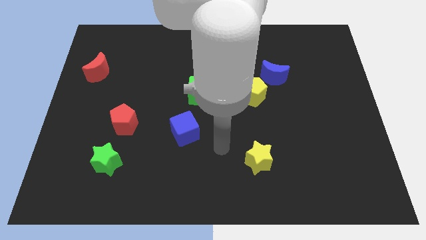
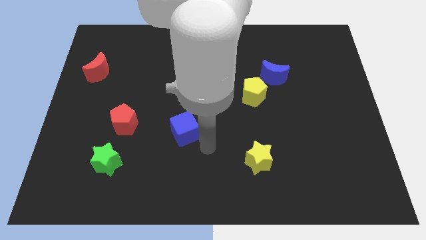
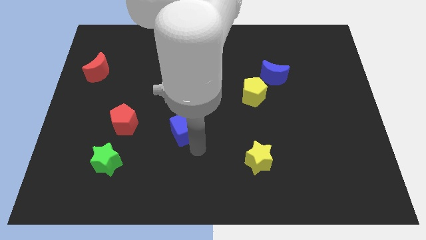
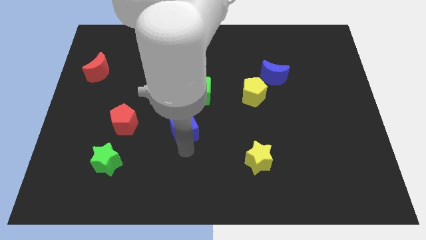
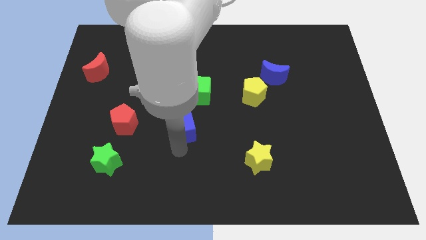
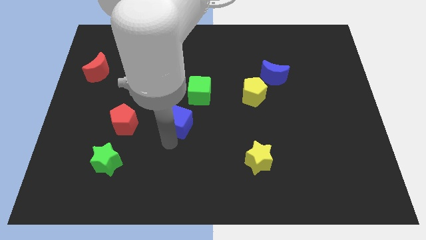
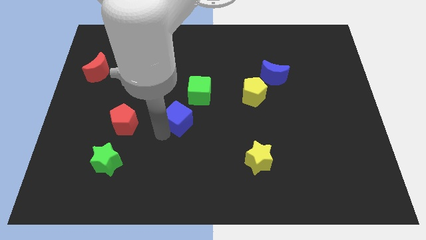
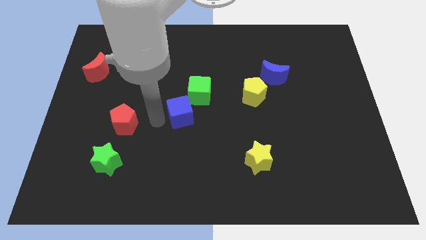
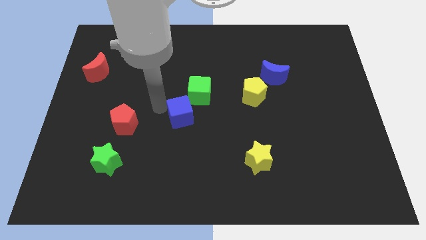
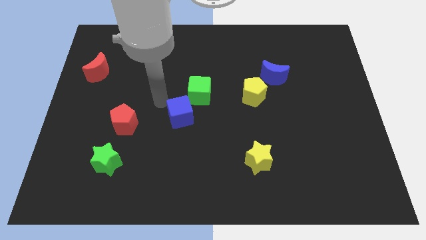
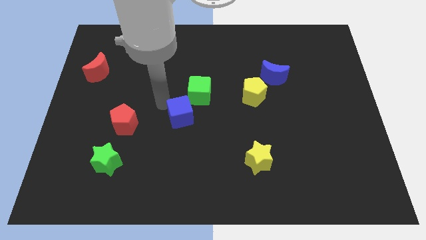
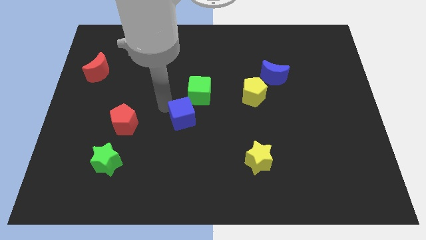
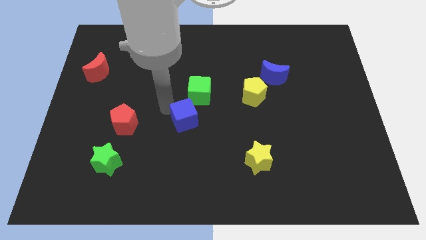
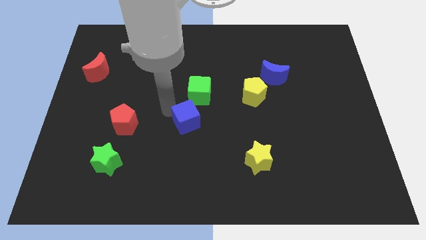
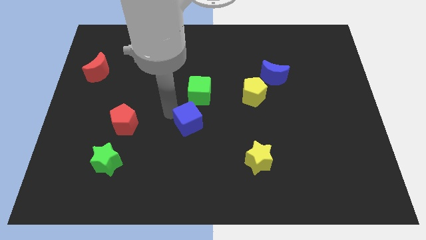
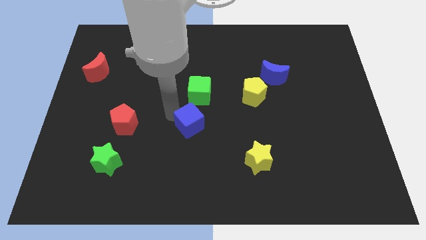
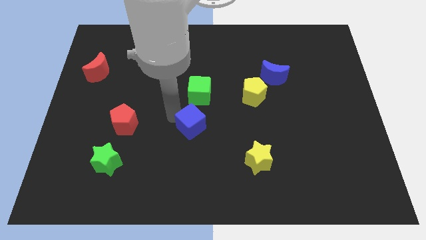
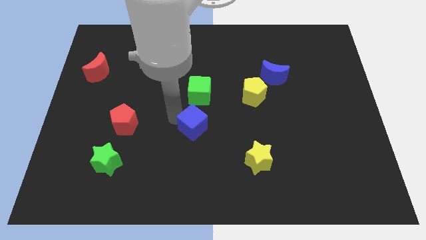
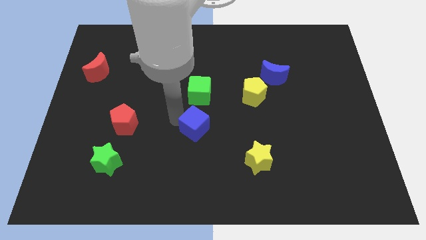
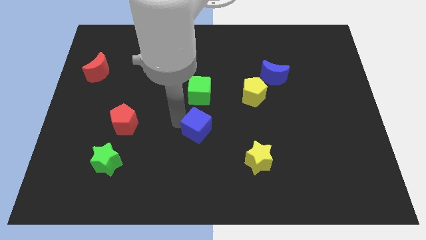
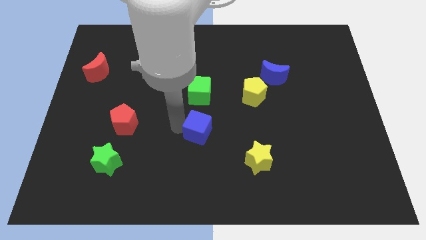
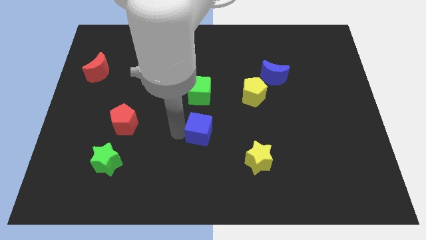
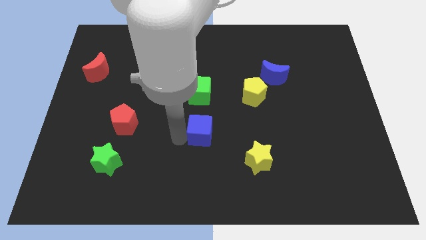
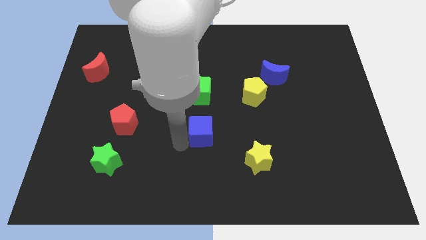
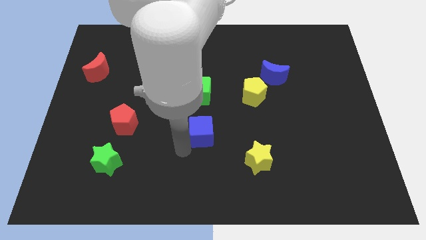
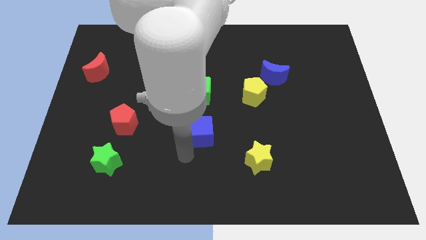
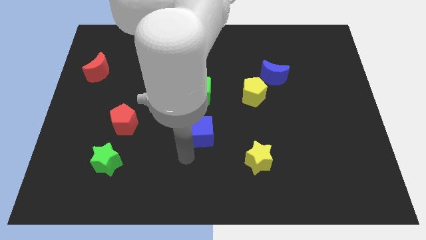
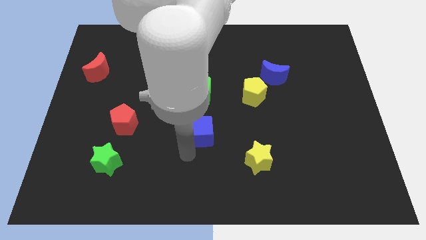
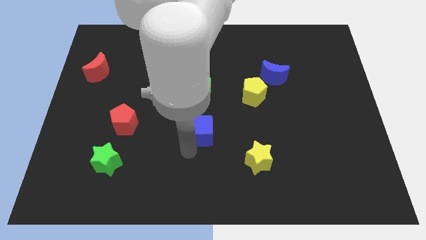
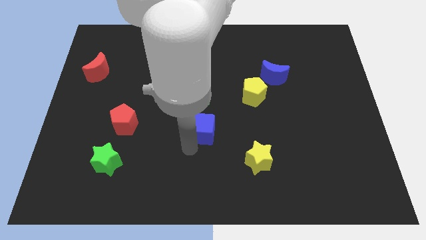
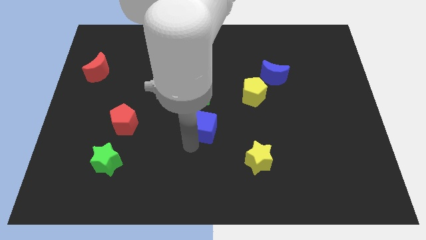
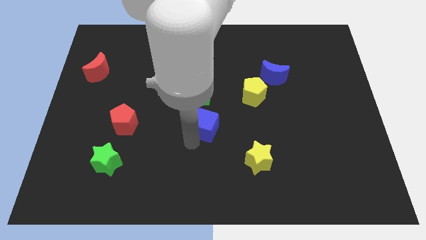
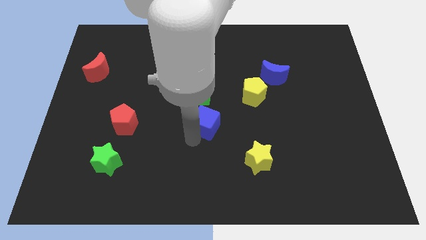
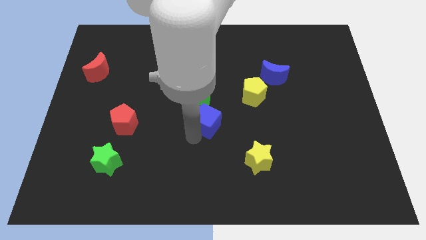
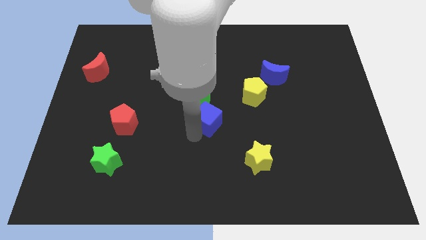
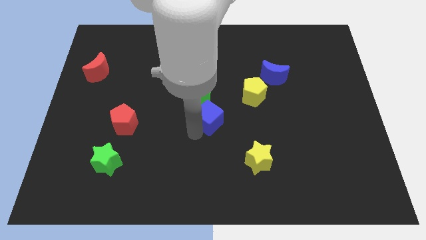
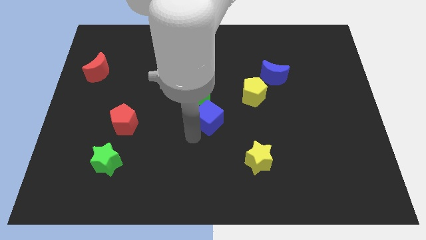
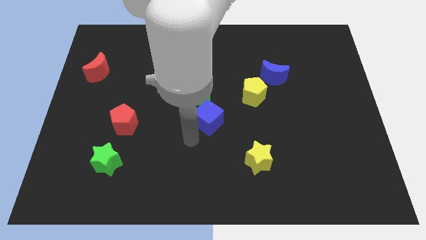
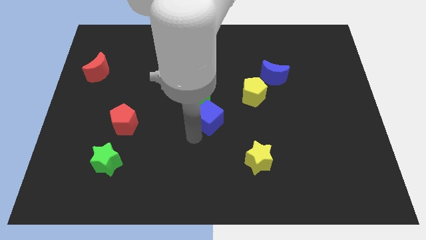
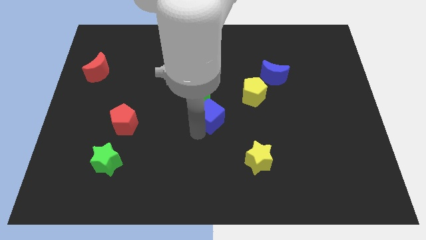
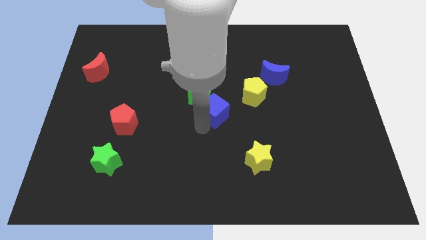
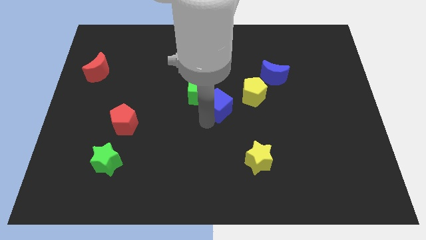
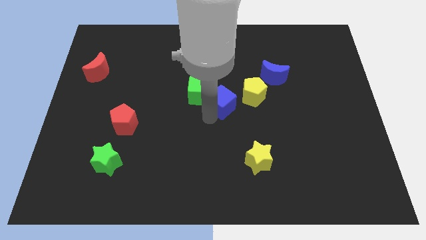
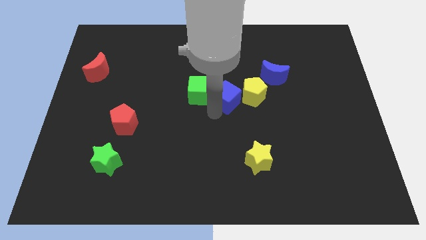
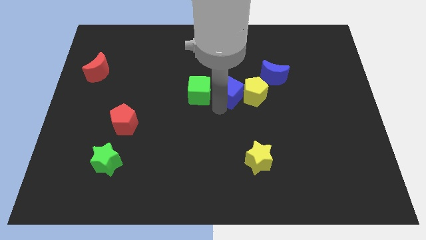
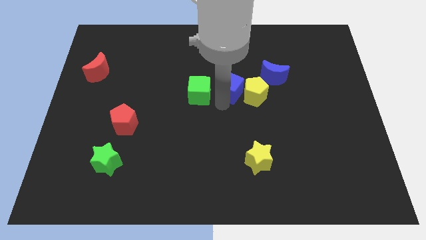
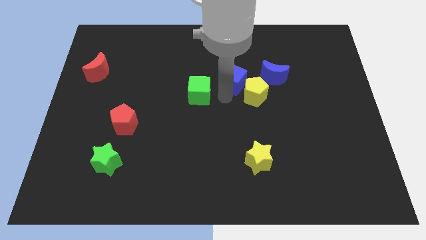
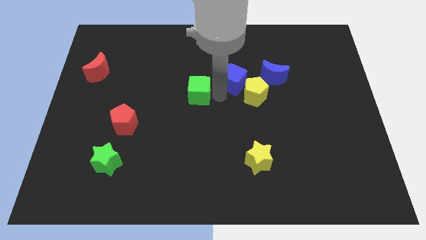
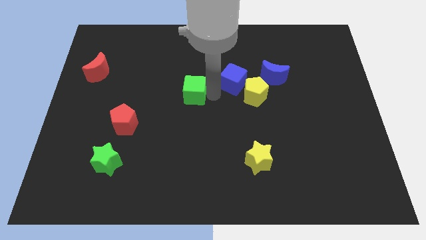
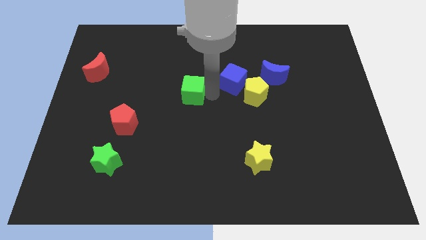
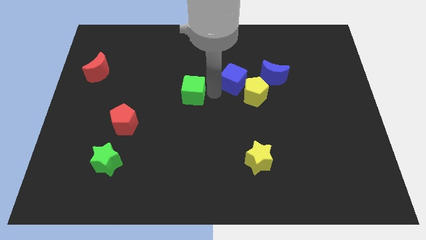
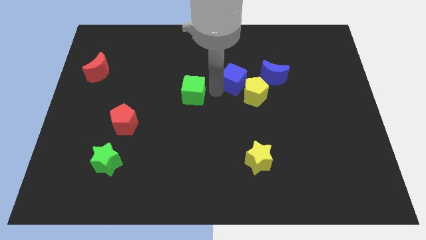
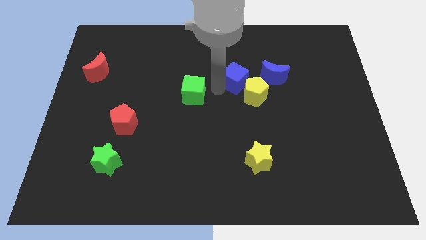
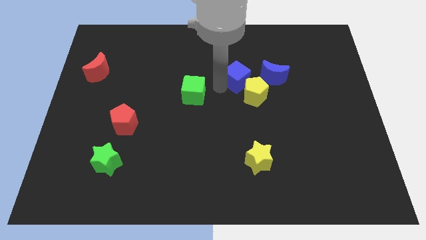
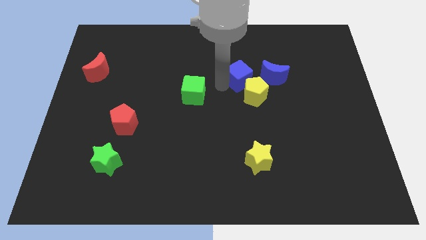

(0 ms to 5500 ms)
move the blue cube upwards and to the right

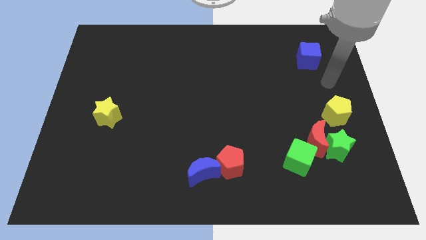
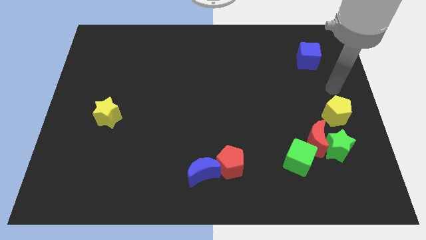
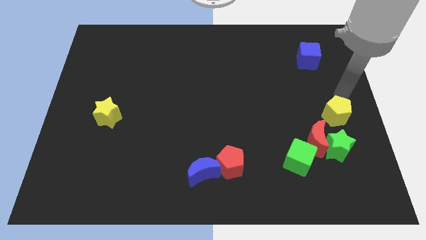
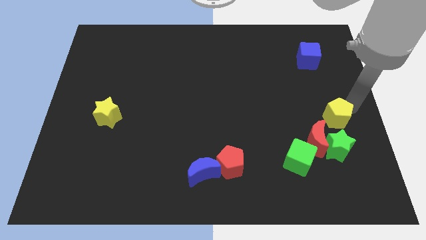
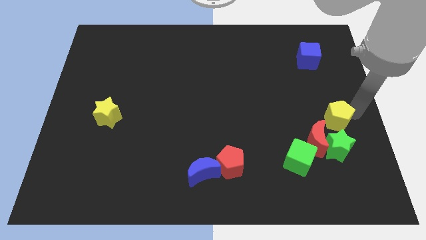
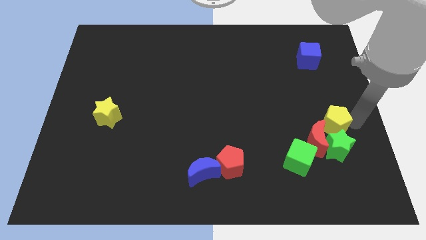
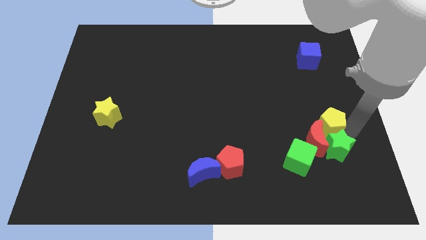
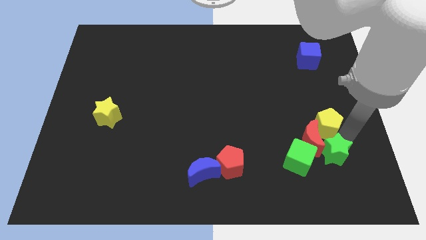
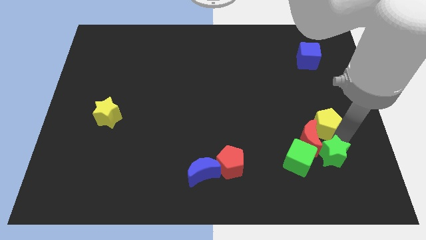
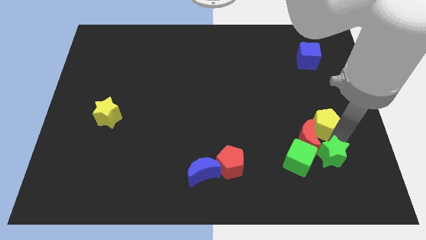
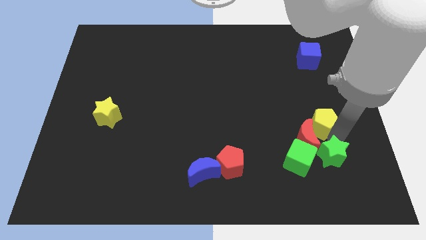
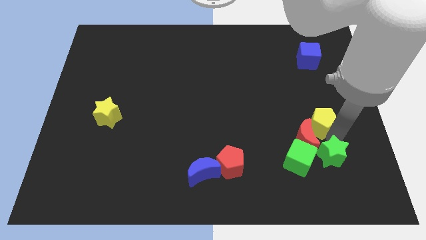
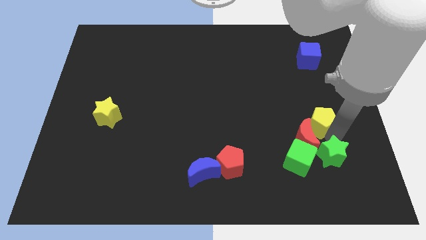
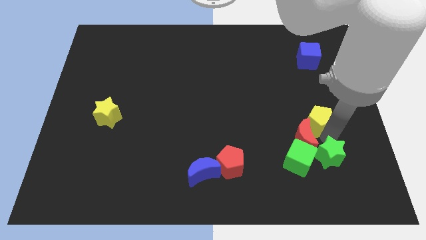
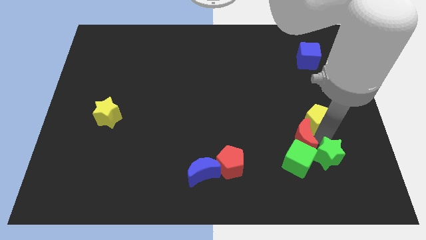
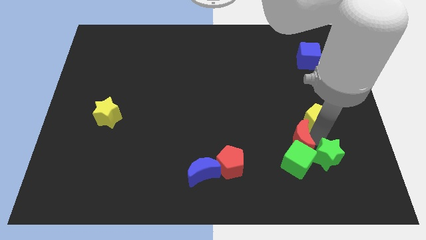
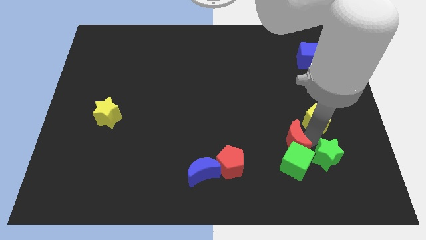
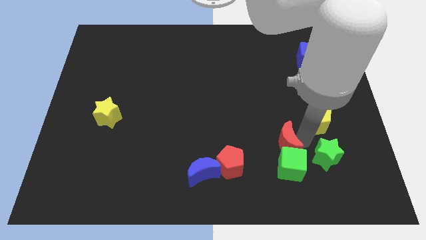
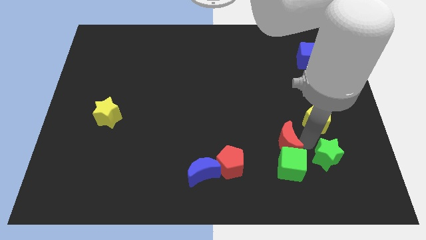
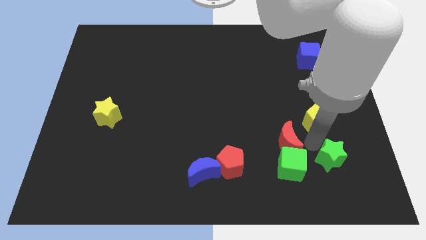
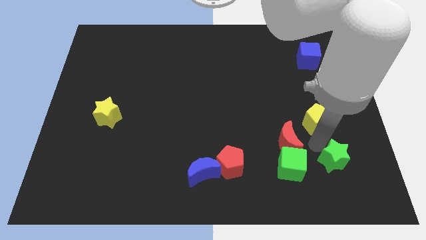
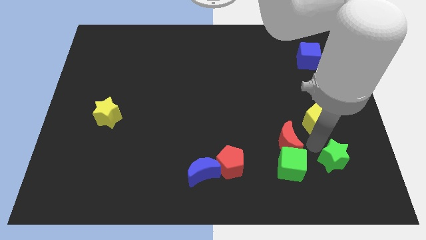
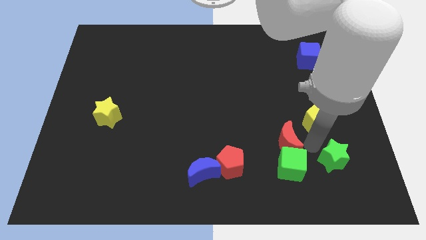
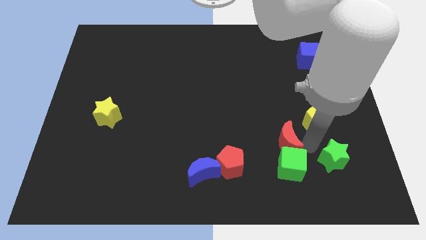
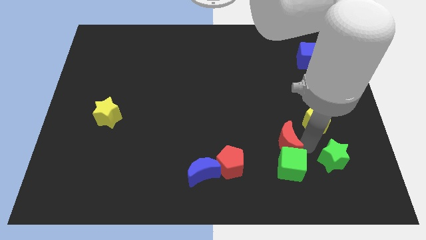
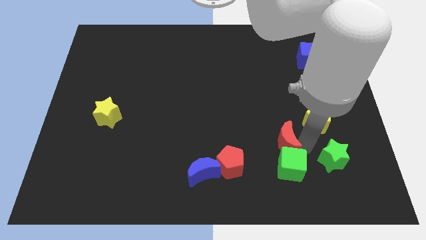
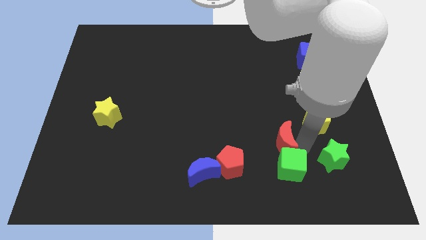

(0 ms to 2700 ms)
slide the red moon somewhat to the left
